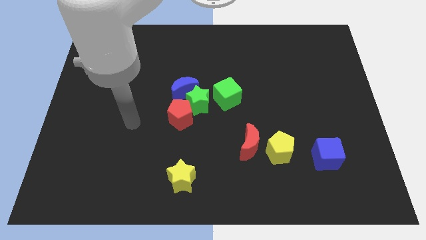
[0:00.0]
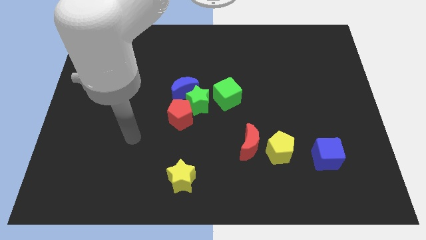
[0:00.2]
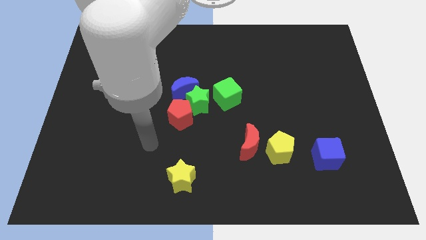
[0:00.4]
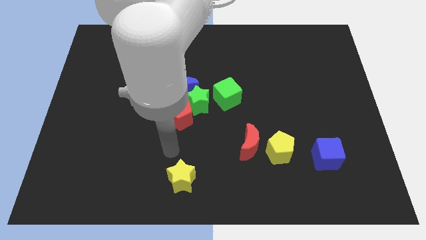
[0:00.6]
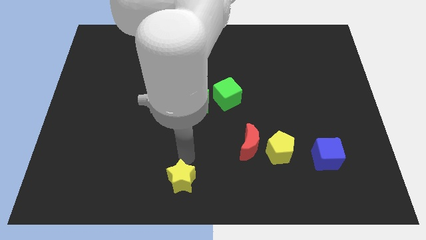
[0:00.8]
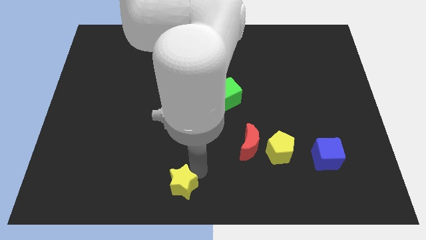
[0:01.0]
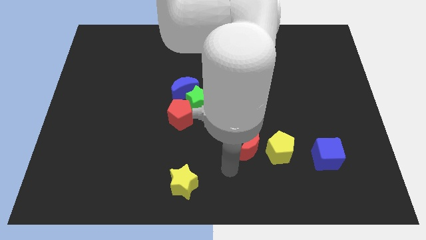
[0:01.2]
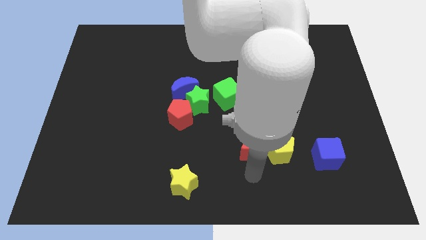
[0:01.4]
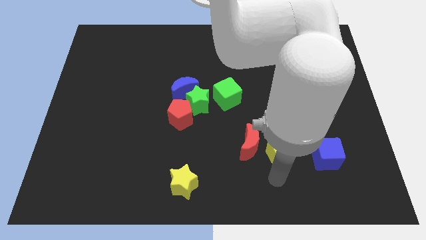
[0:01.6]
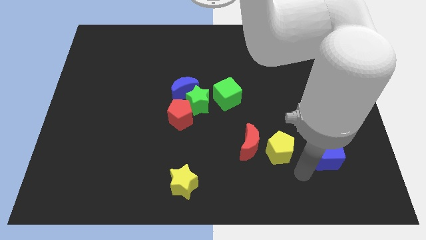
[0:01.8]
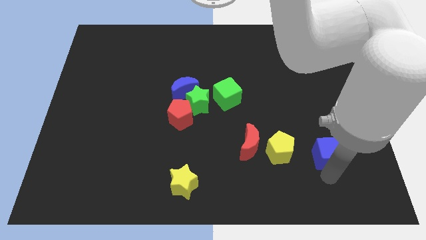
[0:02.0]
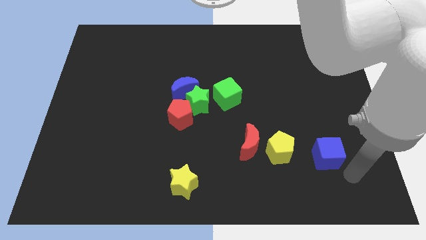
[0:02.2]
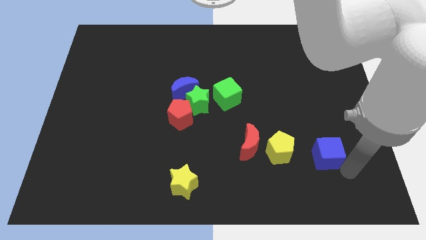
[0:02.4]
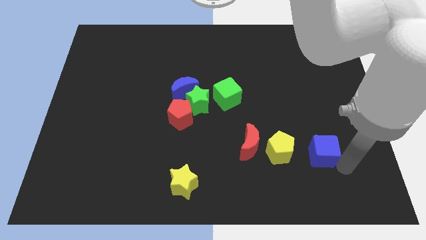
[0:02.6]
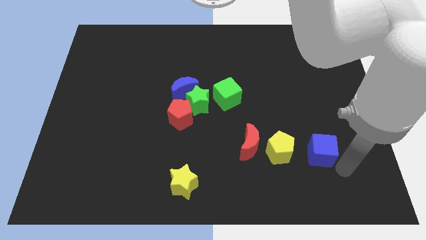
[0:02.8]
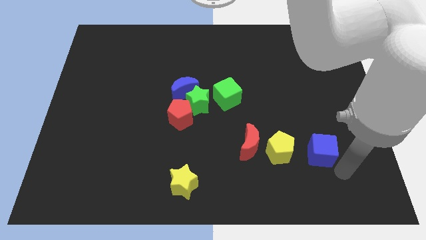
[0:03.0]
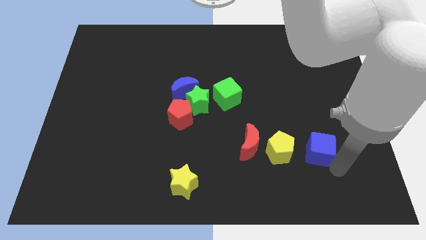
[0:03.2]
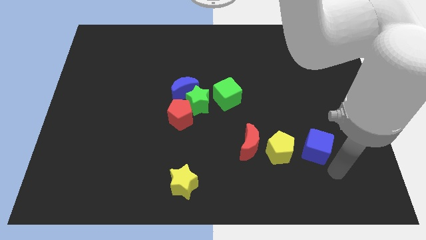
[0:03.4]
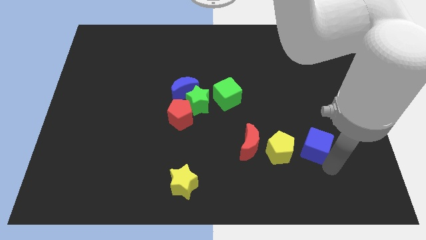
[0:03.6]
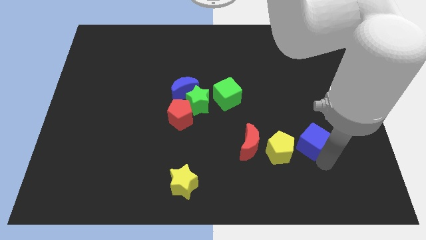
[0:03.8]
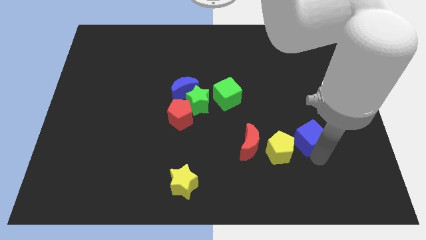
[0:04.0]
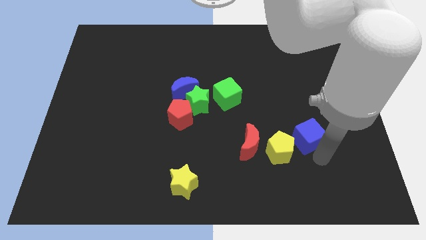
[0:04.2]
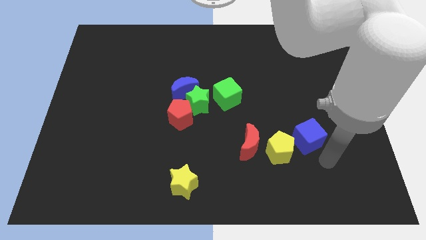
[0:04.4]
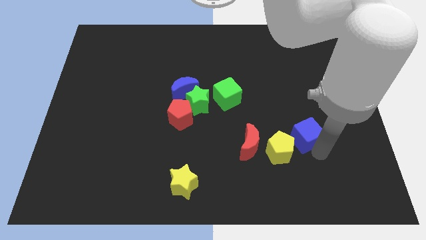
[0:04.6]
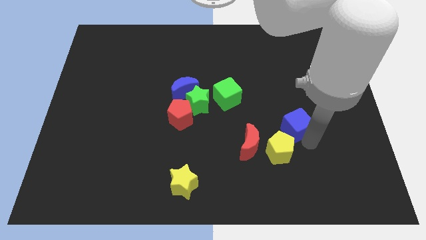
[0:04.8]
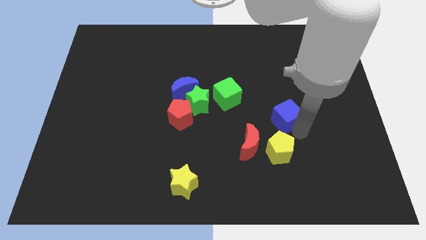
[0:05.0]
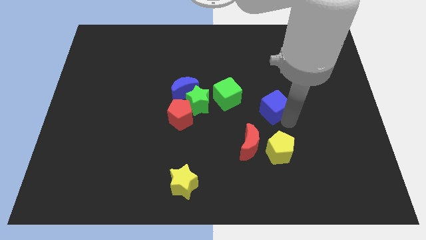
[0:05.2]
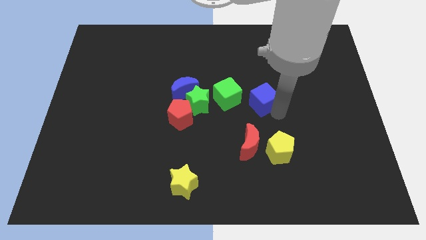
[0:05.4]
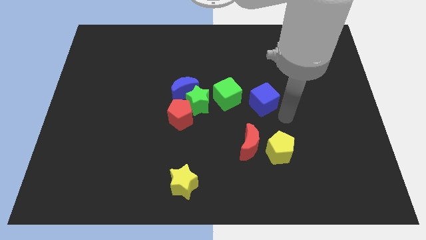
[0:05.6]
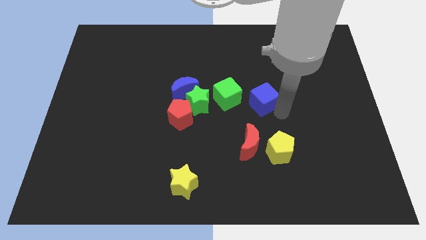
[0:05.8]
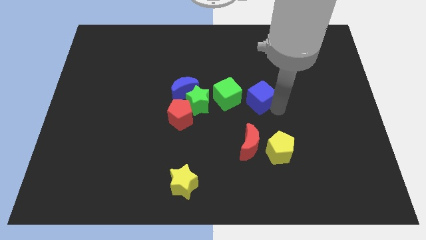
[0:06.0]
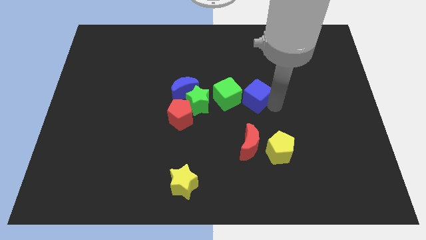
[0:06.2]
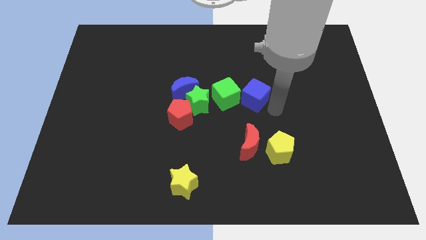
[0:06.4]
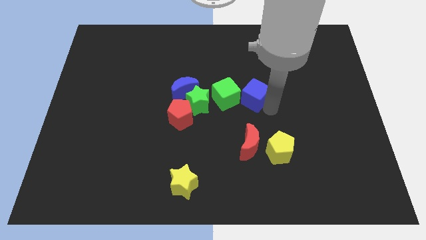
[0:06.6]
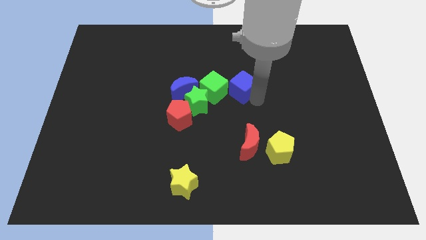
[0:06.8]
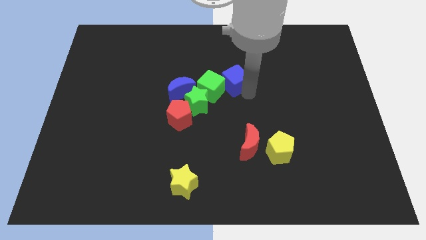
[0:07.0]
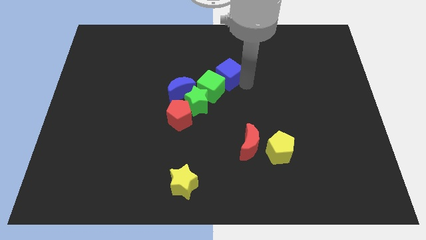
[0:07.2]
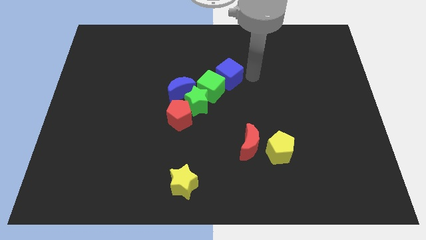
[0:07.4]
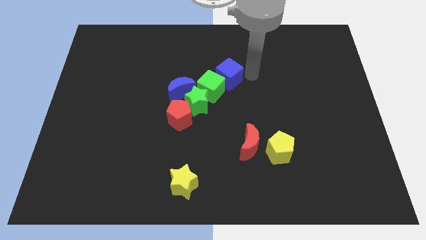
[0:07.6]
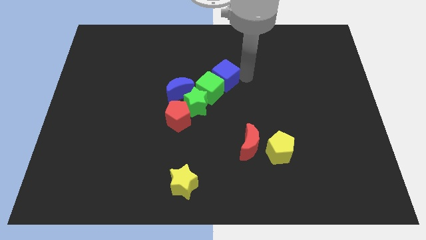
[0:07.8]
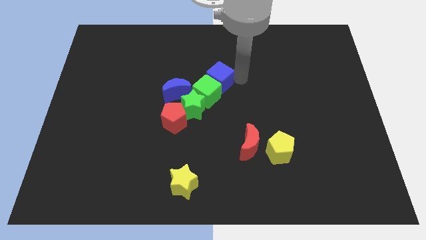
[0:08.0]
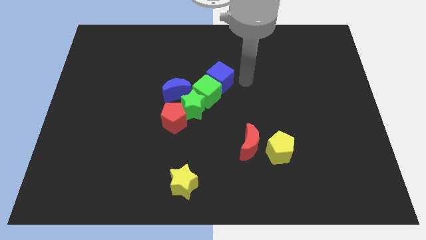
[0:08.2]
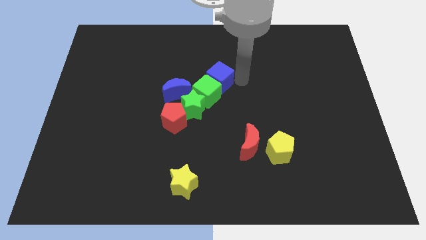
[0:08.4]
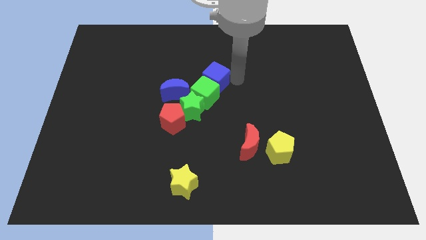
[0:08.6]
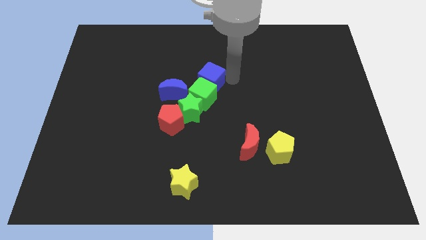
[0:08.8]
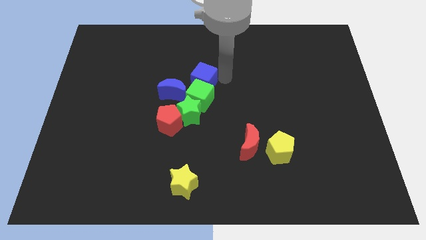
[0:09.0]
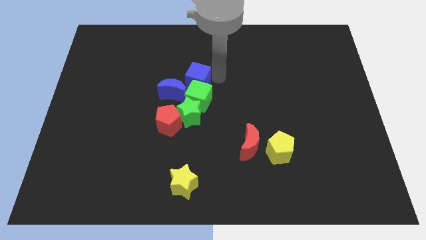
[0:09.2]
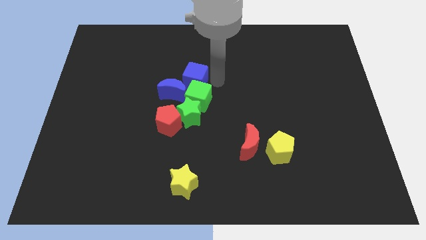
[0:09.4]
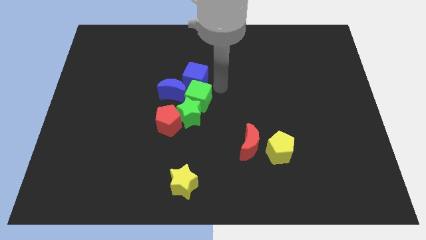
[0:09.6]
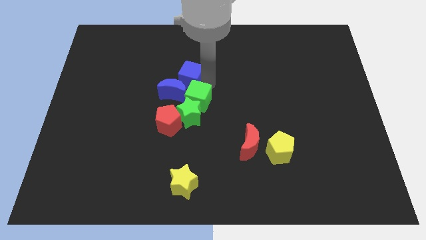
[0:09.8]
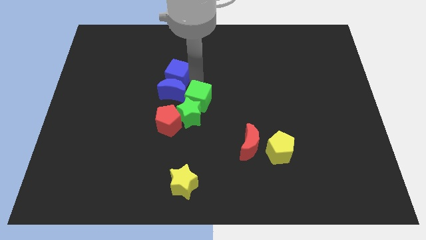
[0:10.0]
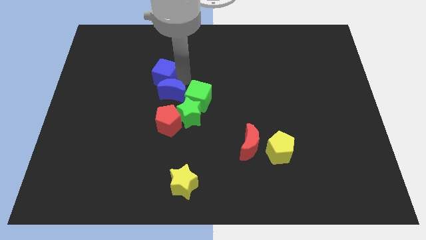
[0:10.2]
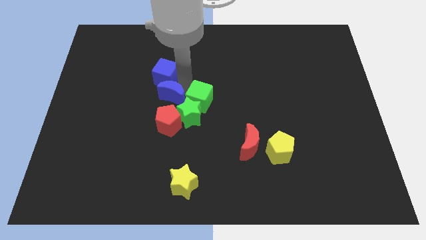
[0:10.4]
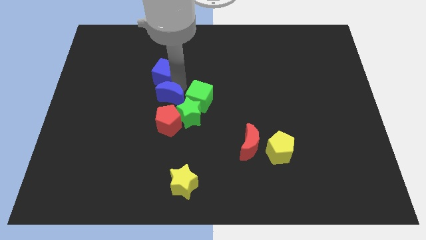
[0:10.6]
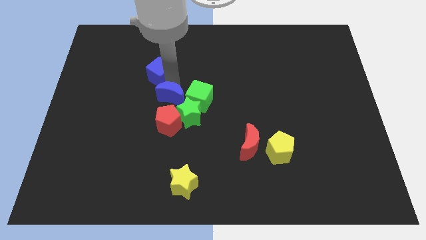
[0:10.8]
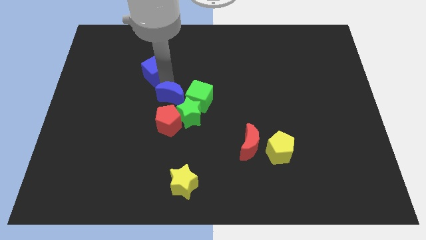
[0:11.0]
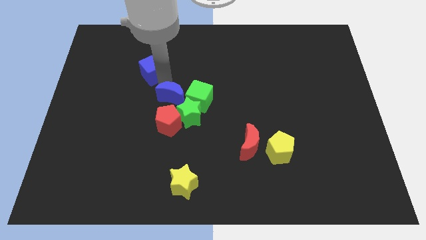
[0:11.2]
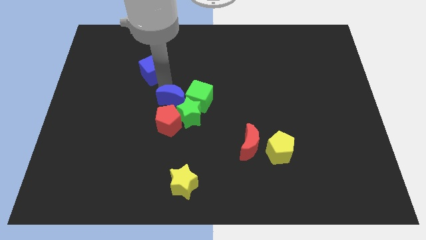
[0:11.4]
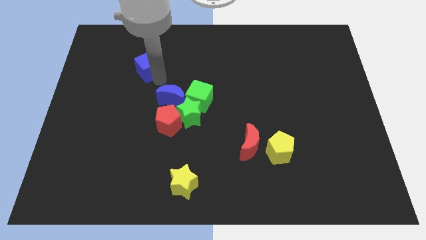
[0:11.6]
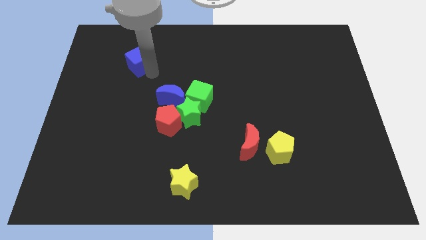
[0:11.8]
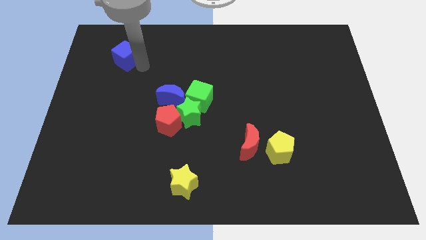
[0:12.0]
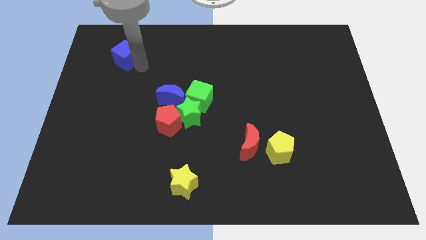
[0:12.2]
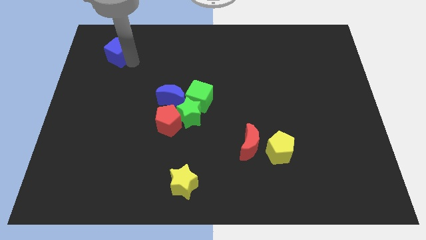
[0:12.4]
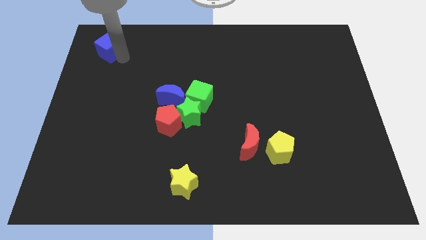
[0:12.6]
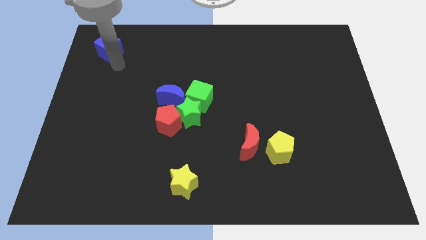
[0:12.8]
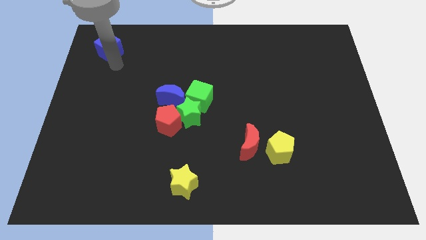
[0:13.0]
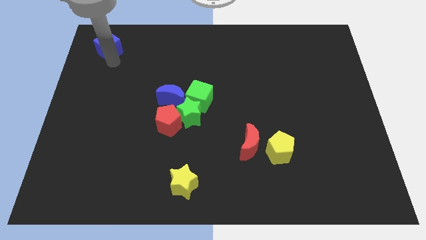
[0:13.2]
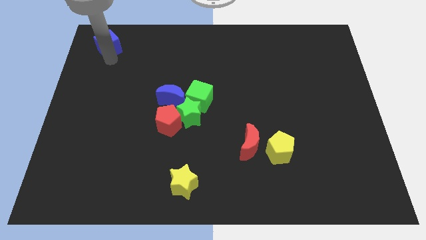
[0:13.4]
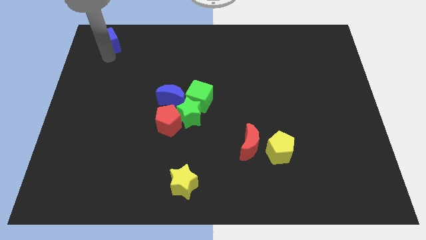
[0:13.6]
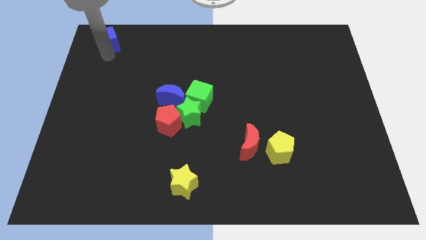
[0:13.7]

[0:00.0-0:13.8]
move the blue cube to the top left
